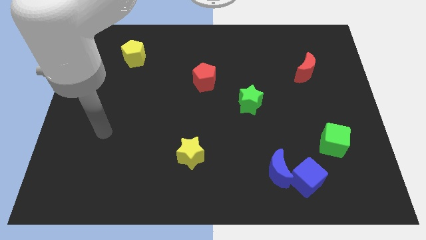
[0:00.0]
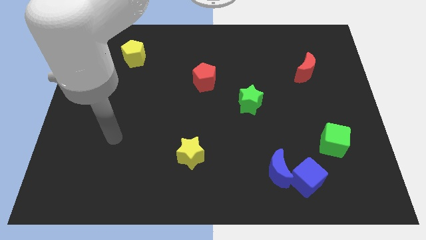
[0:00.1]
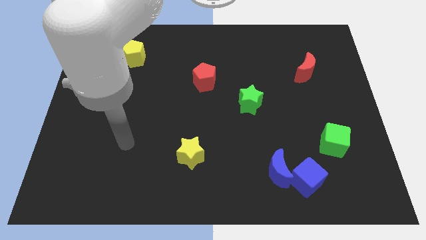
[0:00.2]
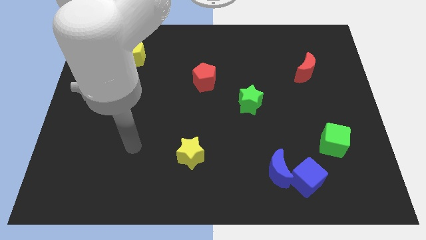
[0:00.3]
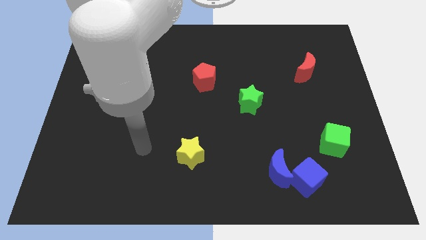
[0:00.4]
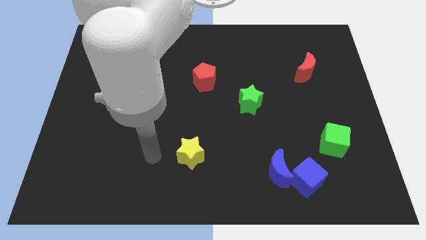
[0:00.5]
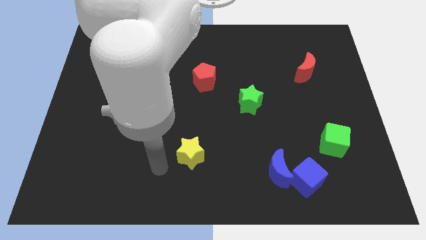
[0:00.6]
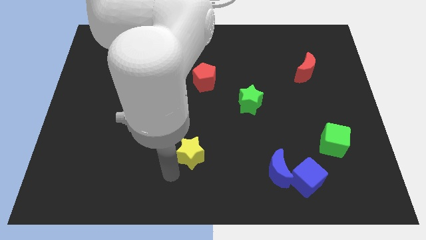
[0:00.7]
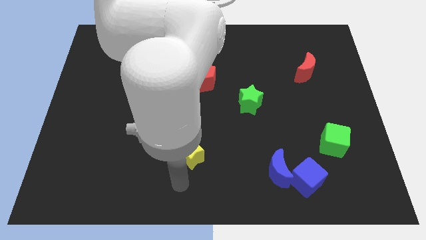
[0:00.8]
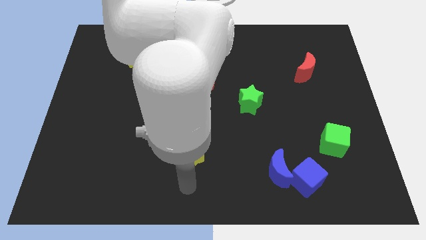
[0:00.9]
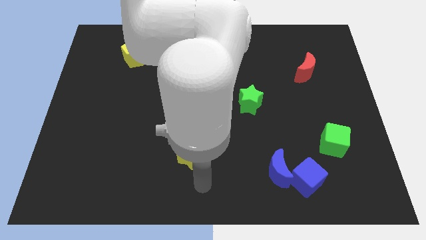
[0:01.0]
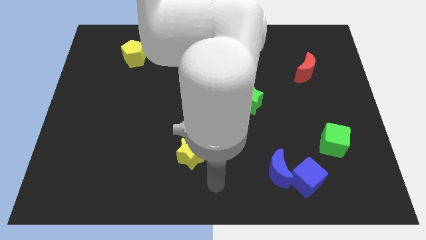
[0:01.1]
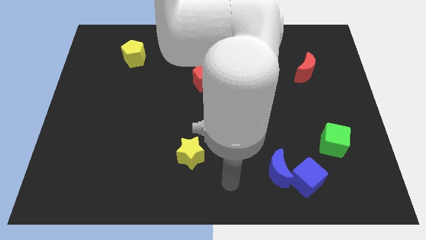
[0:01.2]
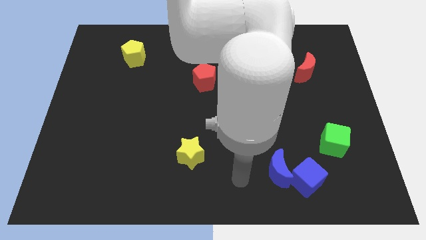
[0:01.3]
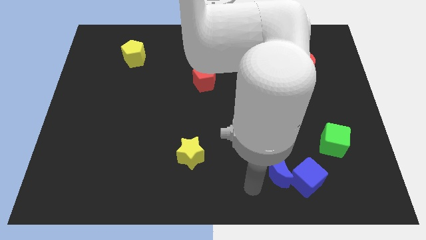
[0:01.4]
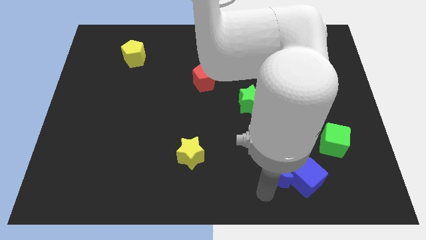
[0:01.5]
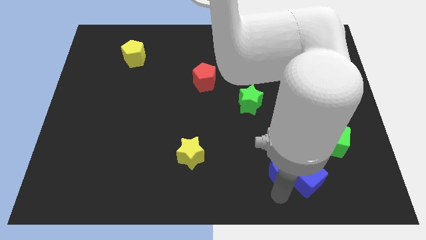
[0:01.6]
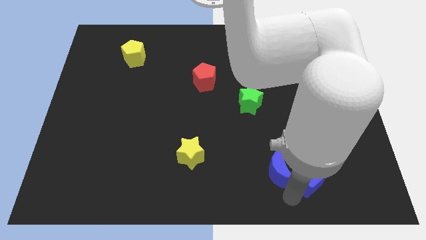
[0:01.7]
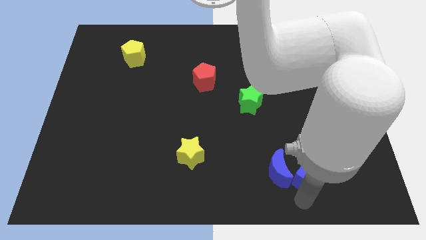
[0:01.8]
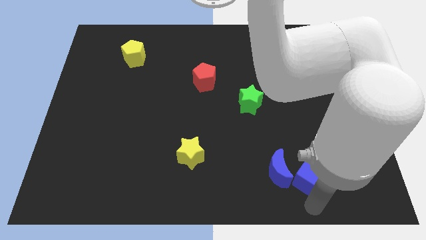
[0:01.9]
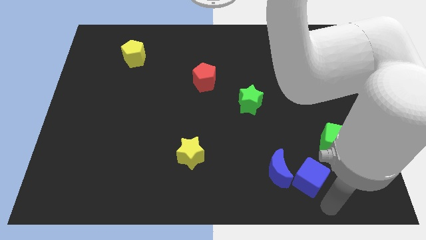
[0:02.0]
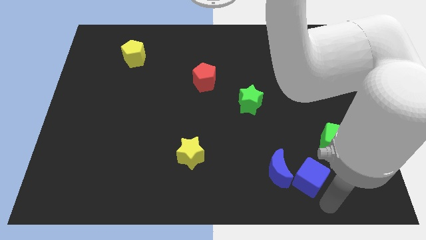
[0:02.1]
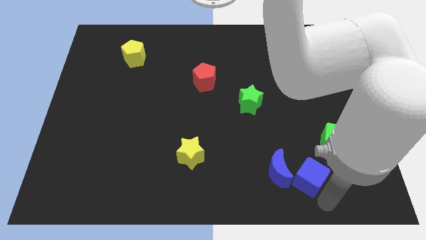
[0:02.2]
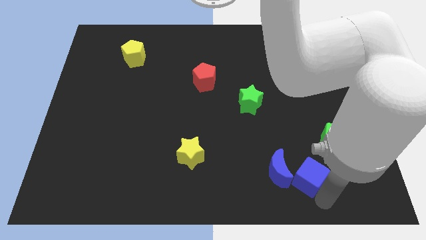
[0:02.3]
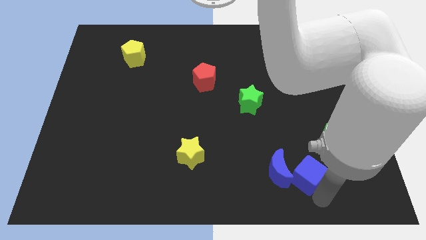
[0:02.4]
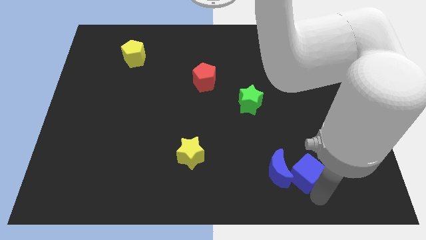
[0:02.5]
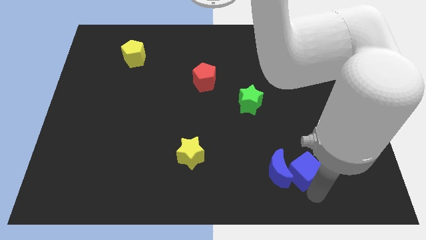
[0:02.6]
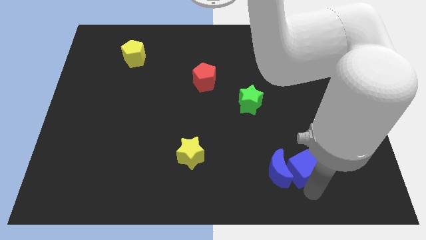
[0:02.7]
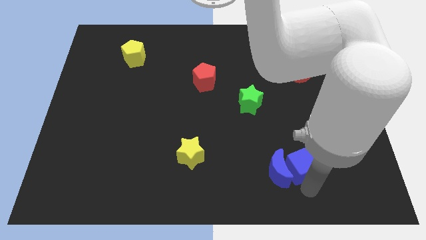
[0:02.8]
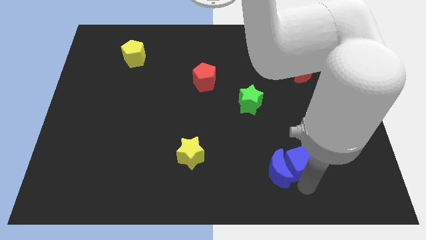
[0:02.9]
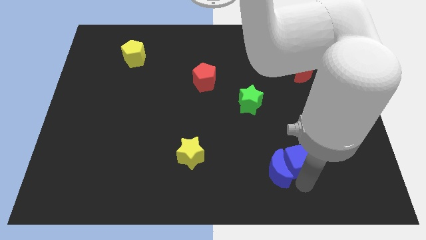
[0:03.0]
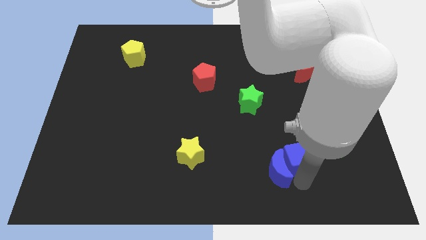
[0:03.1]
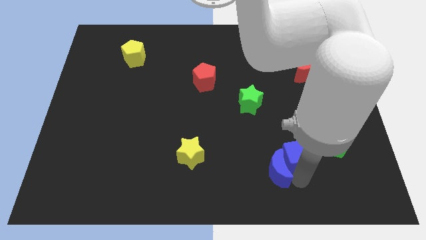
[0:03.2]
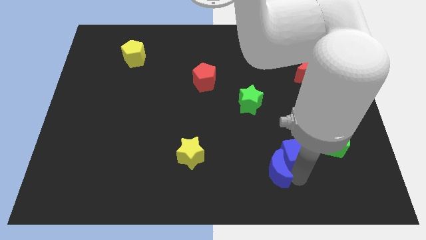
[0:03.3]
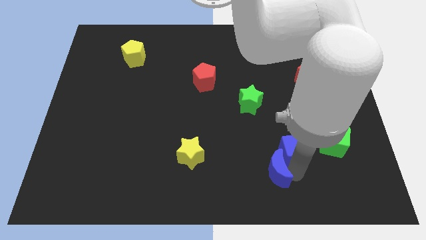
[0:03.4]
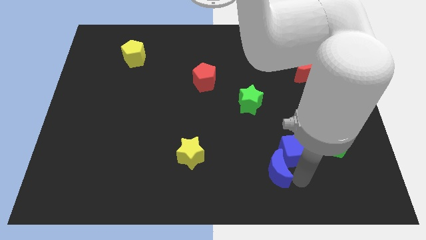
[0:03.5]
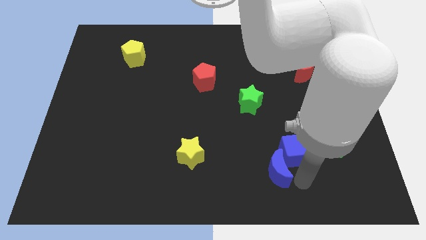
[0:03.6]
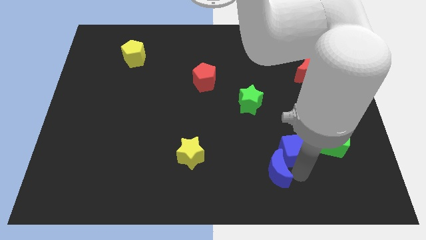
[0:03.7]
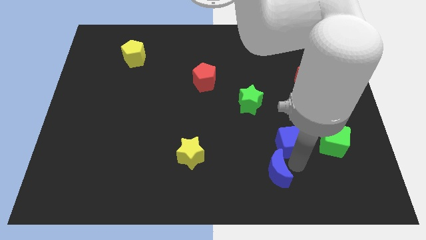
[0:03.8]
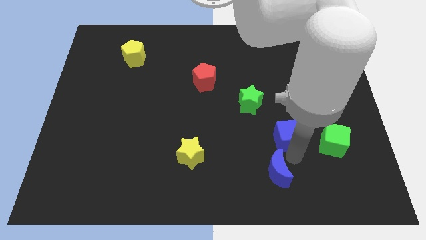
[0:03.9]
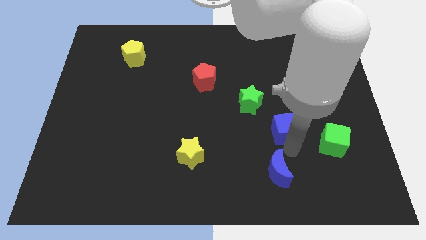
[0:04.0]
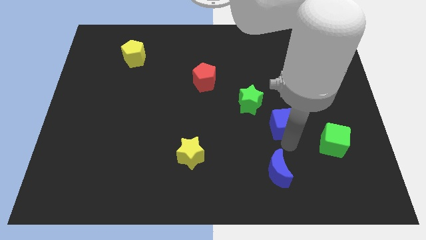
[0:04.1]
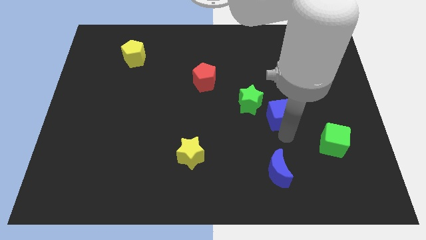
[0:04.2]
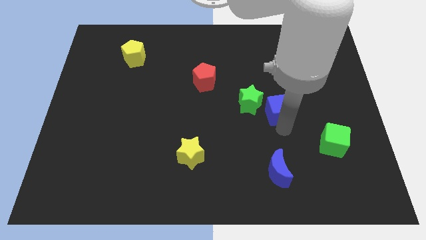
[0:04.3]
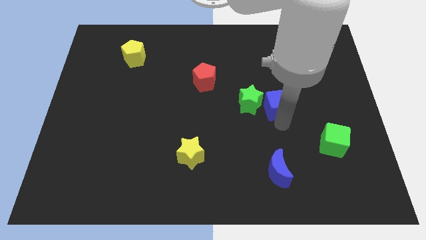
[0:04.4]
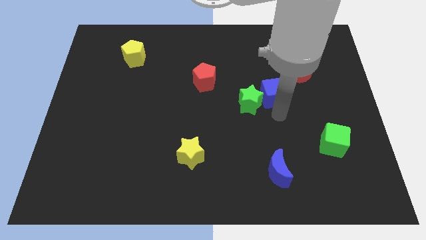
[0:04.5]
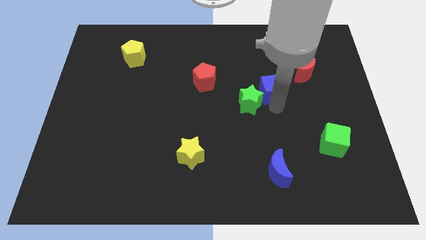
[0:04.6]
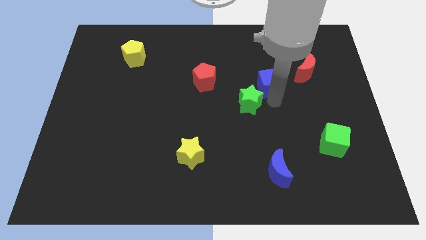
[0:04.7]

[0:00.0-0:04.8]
push the blue cube just left of the red moon

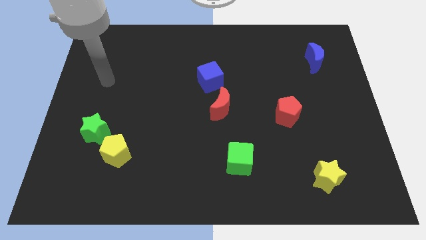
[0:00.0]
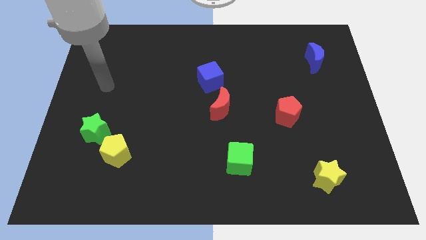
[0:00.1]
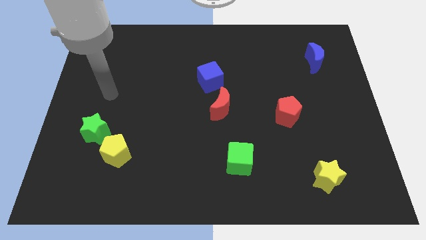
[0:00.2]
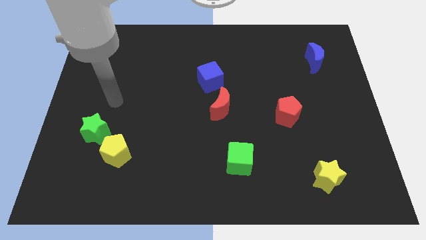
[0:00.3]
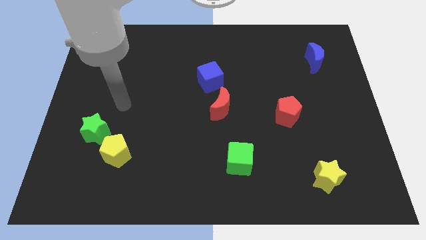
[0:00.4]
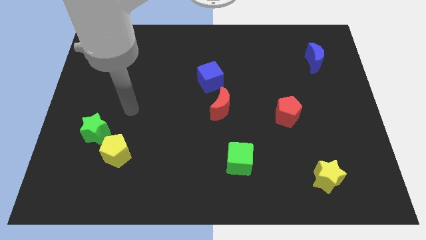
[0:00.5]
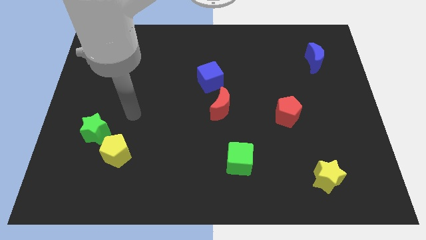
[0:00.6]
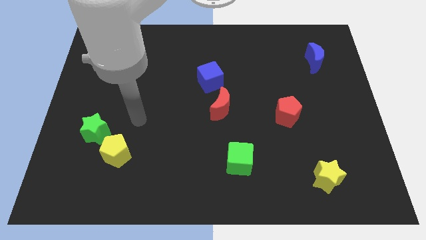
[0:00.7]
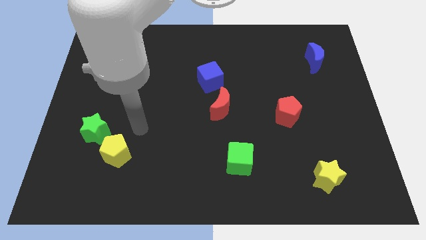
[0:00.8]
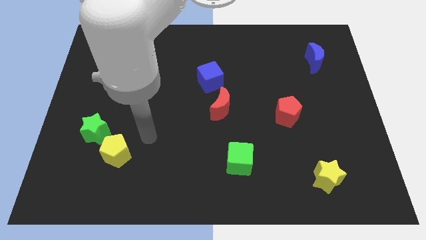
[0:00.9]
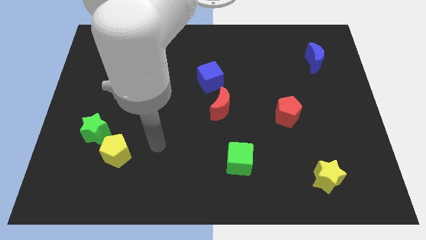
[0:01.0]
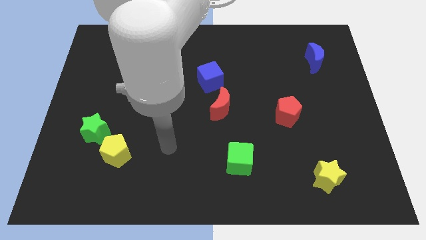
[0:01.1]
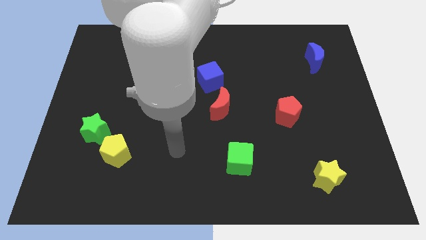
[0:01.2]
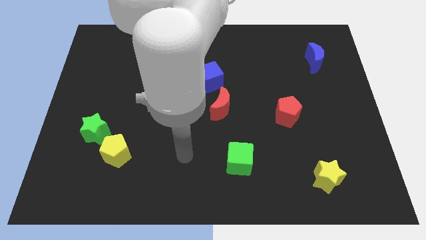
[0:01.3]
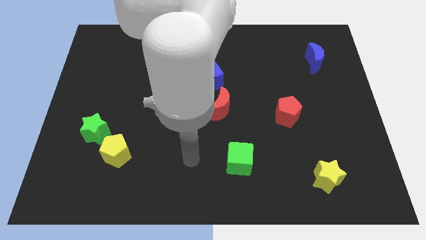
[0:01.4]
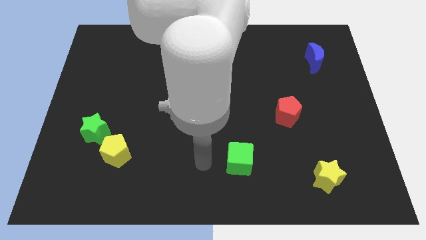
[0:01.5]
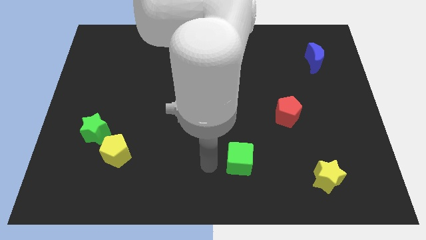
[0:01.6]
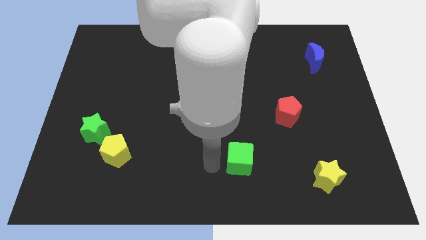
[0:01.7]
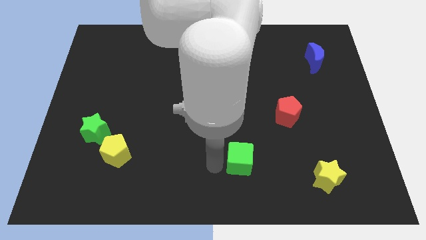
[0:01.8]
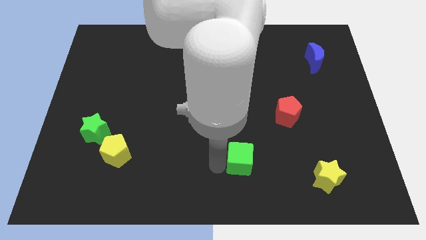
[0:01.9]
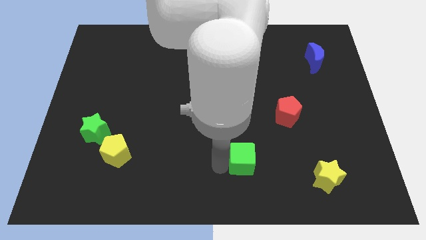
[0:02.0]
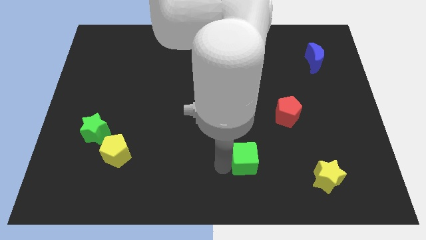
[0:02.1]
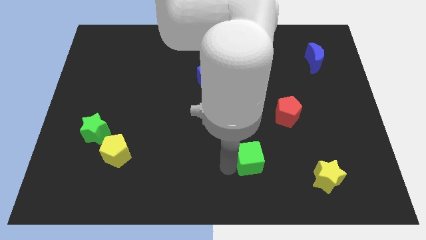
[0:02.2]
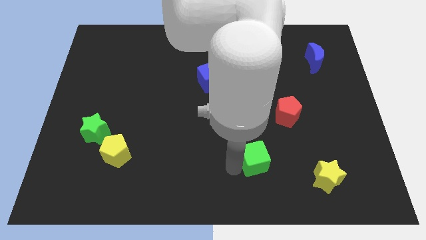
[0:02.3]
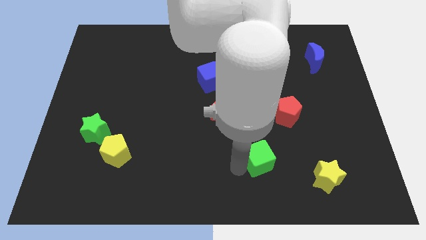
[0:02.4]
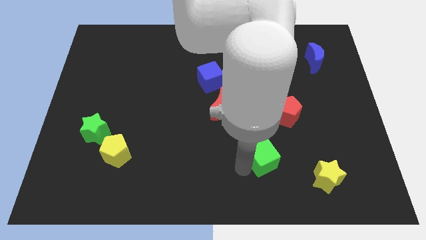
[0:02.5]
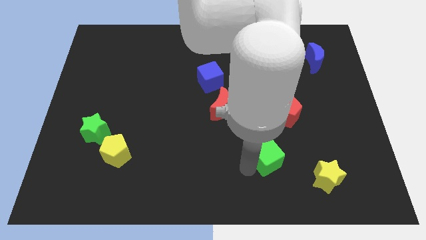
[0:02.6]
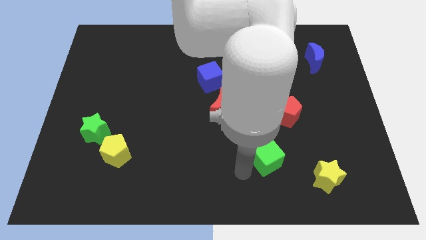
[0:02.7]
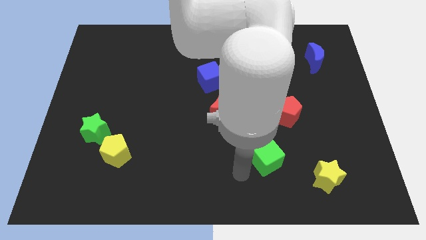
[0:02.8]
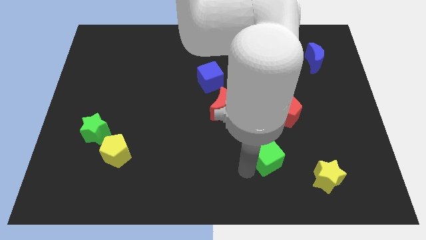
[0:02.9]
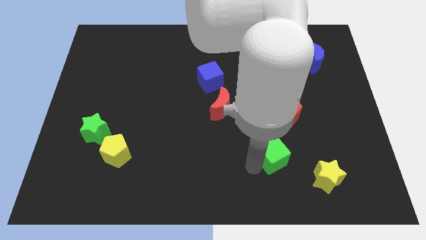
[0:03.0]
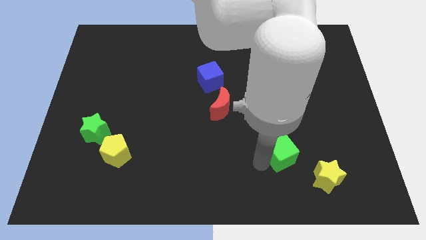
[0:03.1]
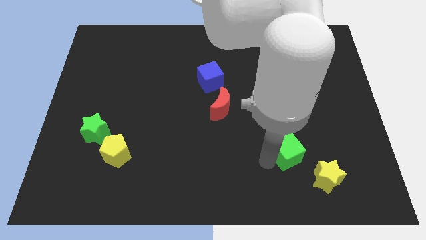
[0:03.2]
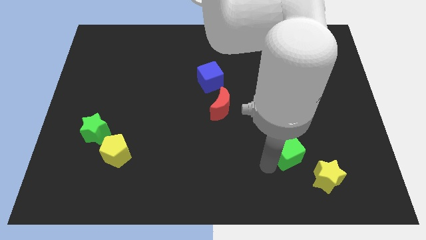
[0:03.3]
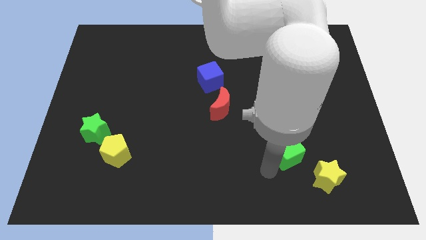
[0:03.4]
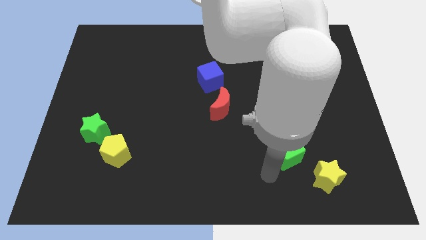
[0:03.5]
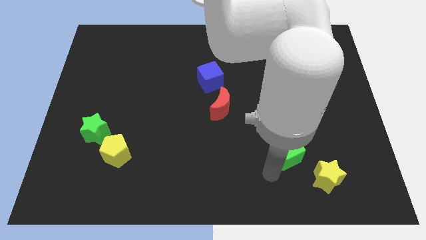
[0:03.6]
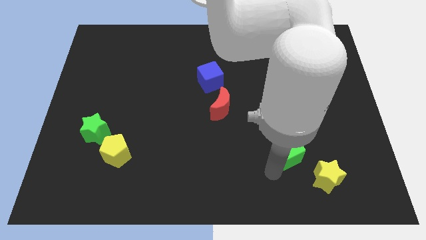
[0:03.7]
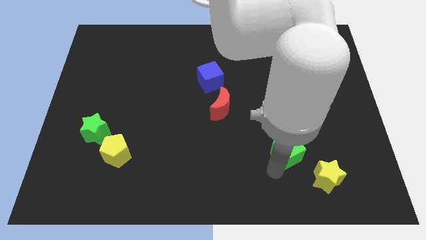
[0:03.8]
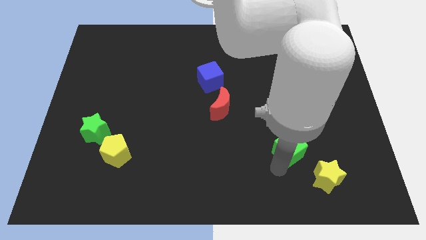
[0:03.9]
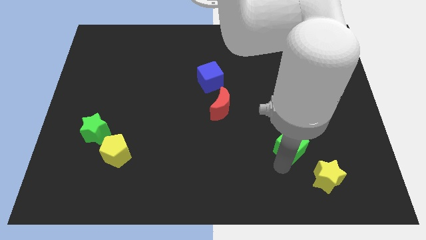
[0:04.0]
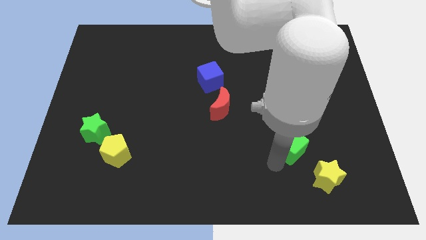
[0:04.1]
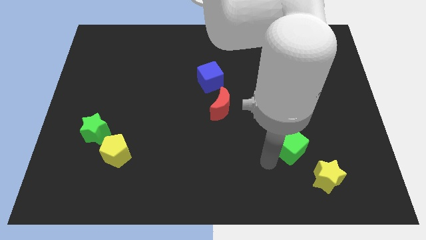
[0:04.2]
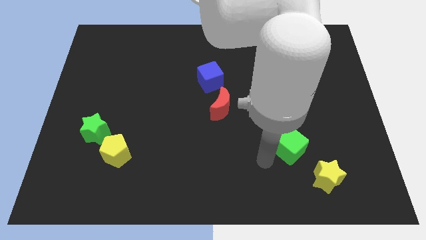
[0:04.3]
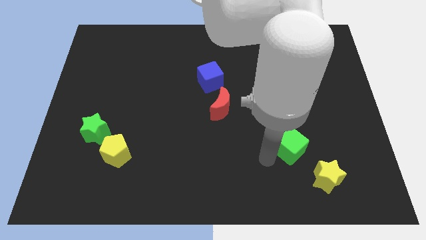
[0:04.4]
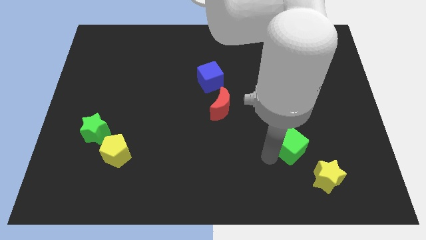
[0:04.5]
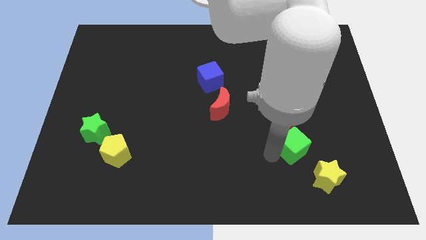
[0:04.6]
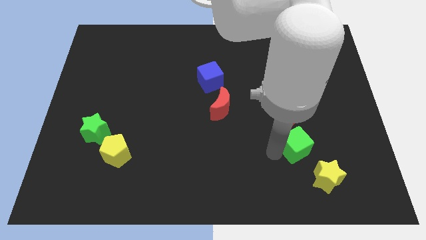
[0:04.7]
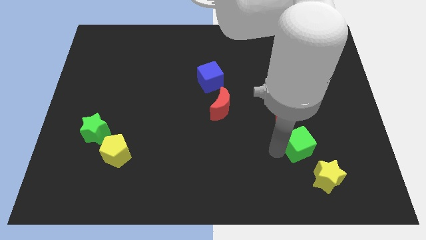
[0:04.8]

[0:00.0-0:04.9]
push the green cube to the top side of the yellow star
